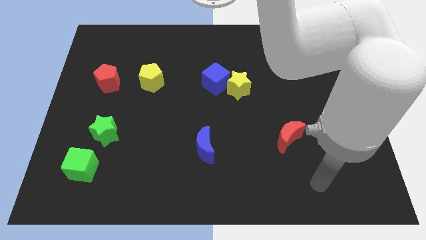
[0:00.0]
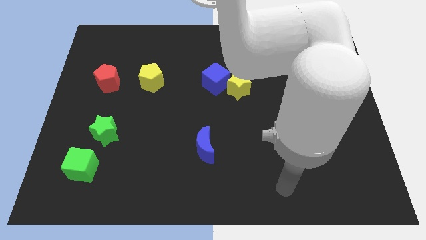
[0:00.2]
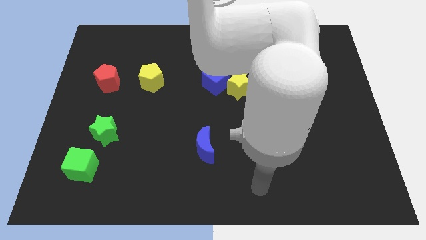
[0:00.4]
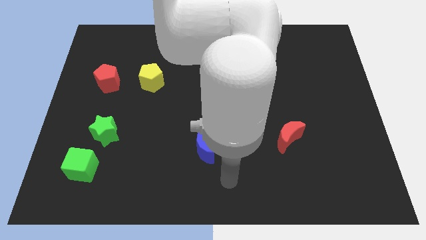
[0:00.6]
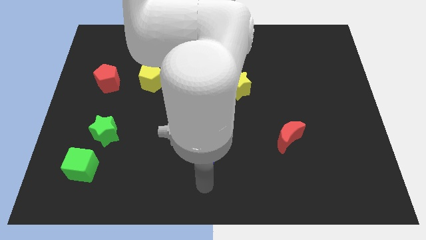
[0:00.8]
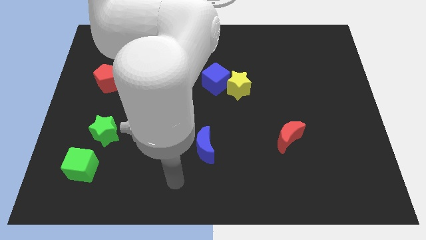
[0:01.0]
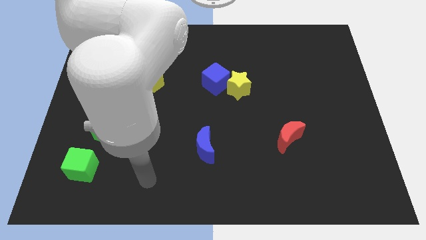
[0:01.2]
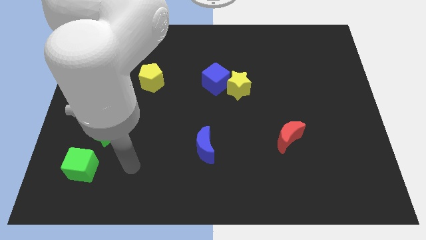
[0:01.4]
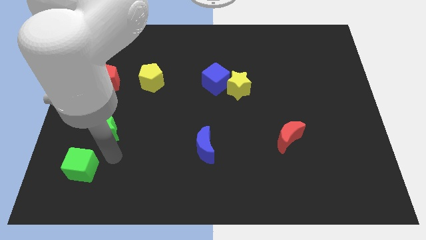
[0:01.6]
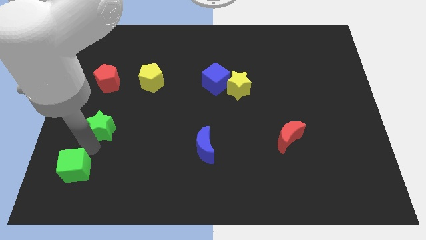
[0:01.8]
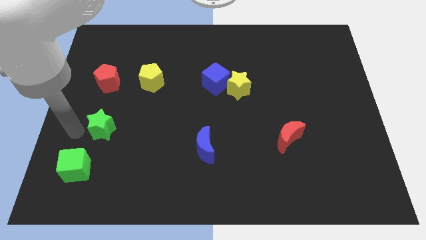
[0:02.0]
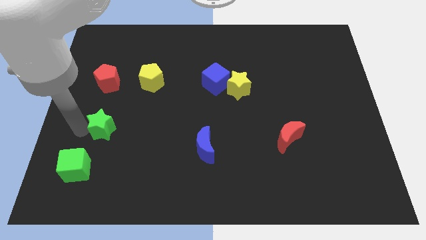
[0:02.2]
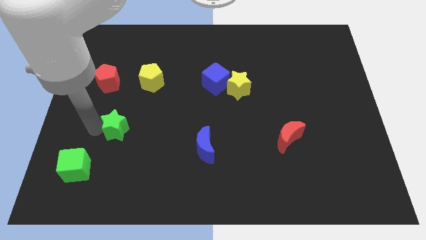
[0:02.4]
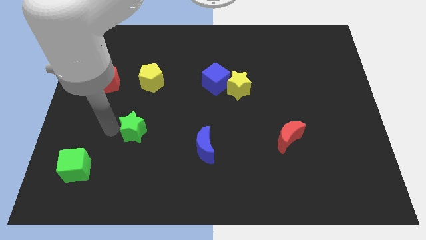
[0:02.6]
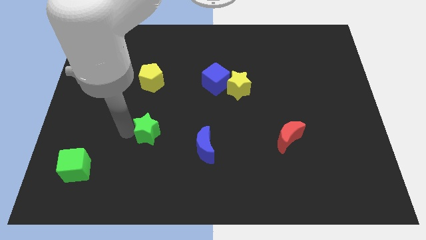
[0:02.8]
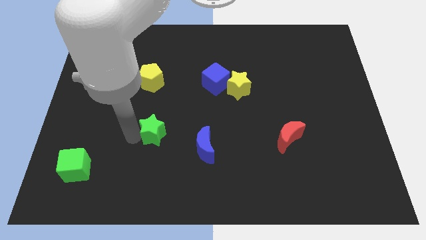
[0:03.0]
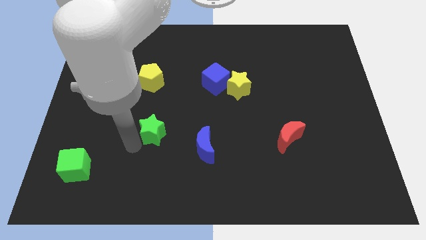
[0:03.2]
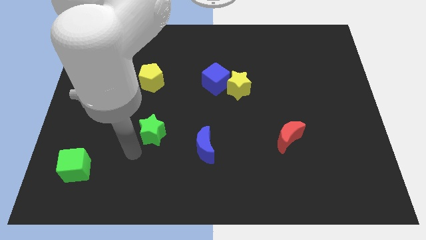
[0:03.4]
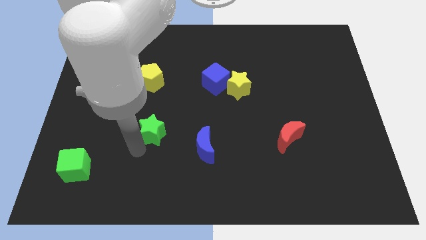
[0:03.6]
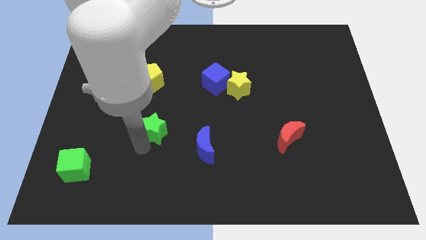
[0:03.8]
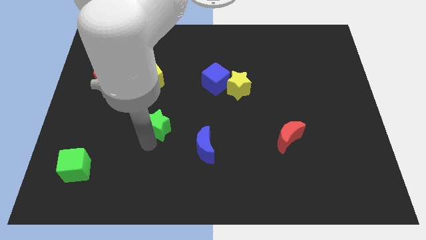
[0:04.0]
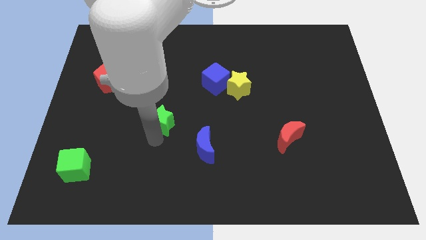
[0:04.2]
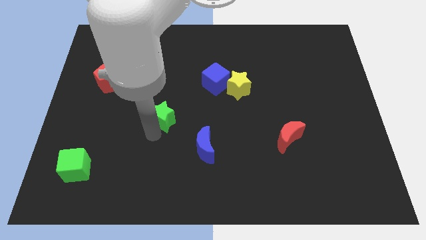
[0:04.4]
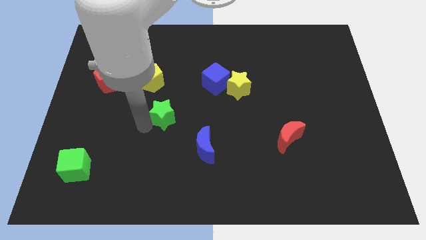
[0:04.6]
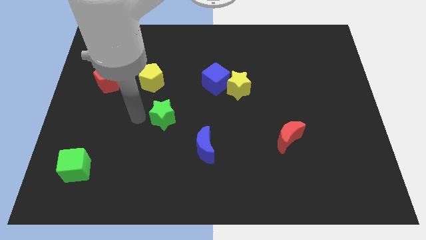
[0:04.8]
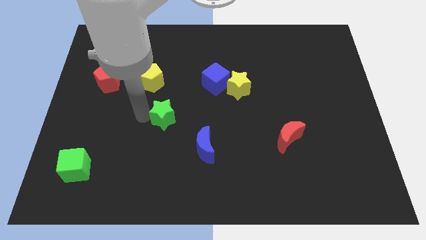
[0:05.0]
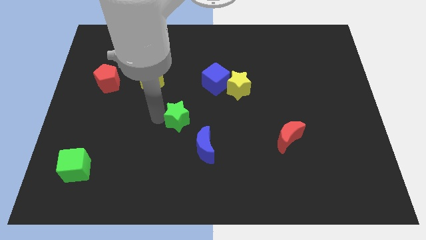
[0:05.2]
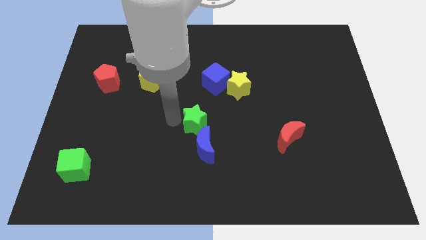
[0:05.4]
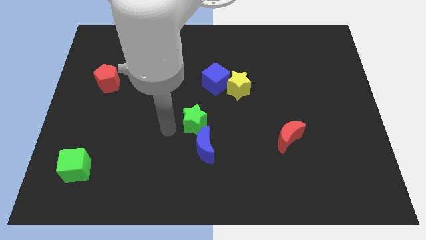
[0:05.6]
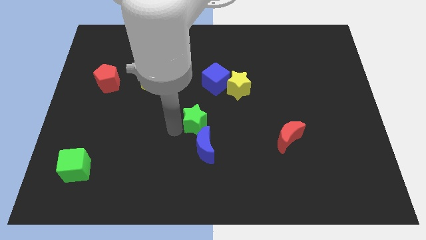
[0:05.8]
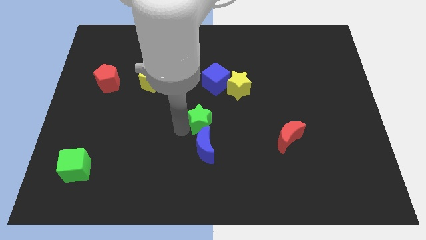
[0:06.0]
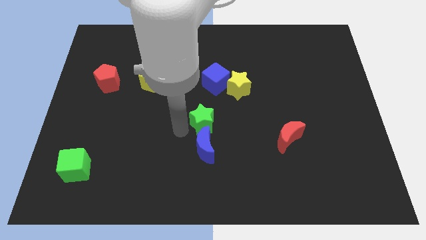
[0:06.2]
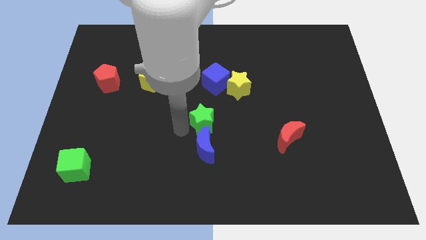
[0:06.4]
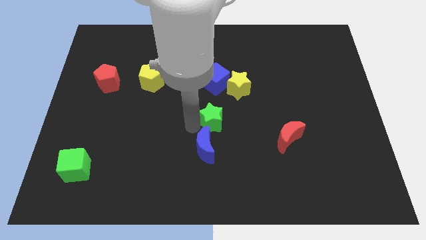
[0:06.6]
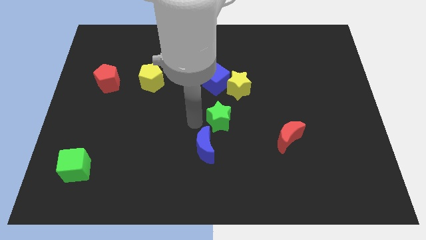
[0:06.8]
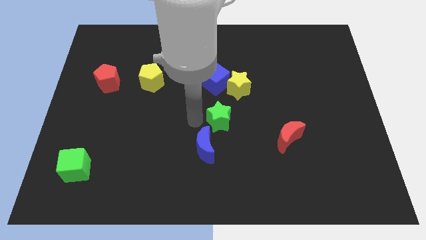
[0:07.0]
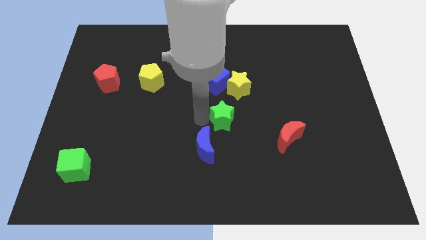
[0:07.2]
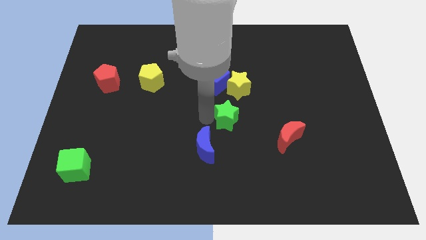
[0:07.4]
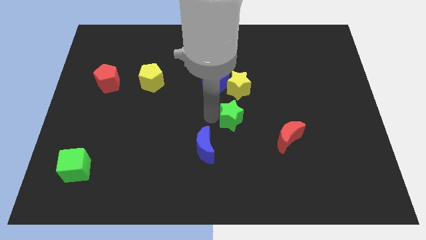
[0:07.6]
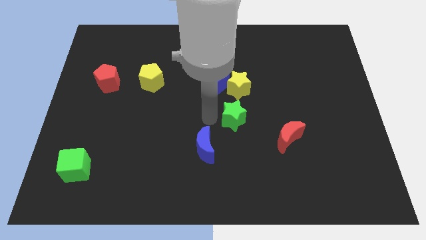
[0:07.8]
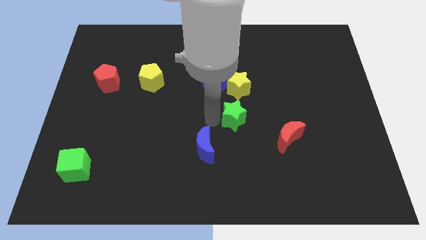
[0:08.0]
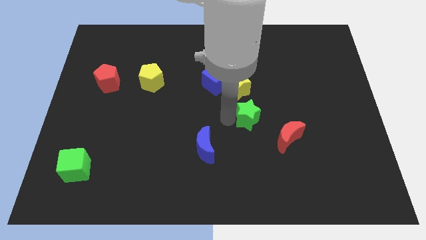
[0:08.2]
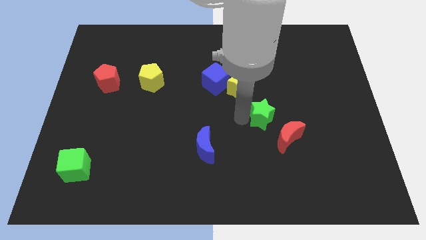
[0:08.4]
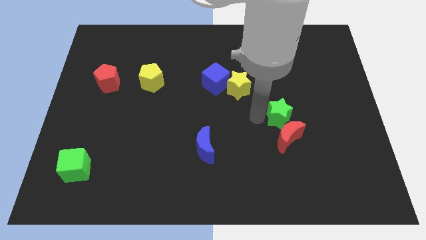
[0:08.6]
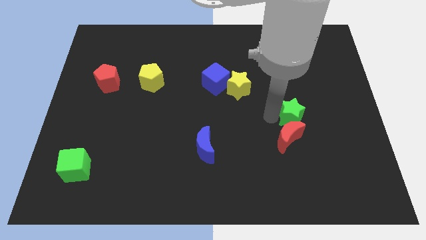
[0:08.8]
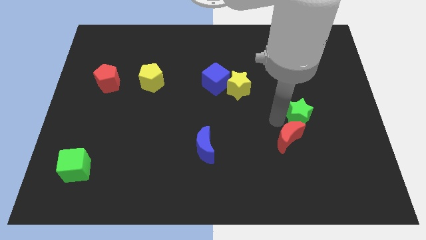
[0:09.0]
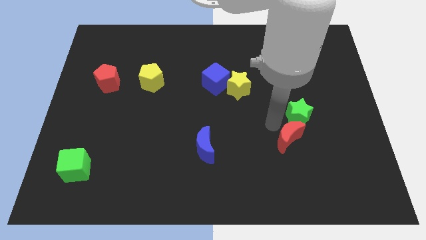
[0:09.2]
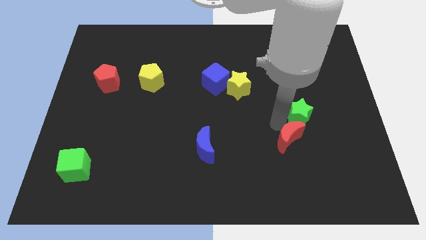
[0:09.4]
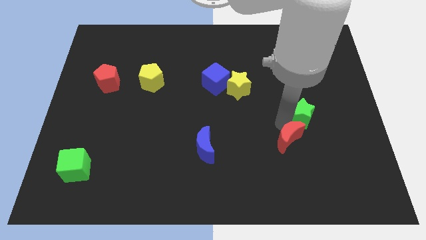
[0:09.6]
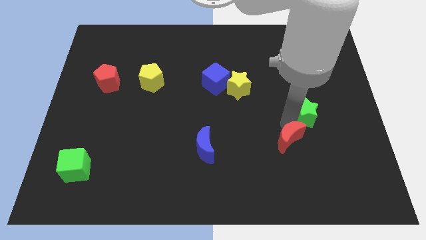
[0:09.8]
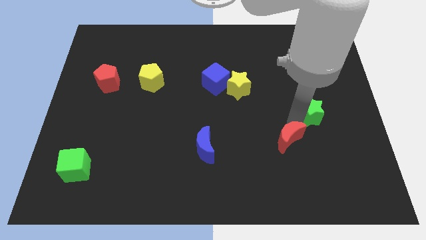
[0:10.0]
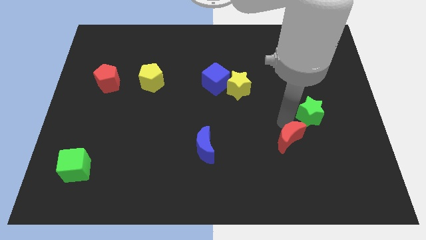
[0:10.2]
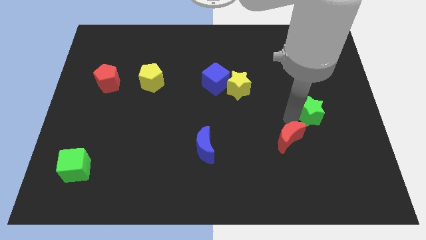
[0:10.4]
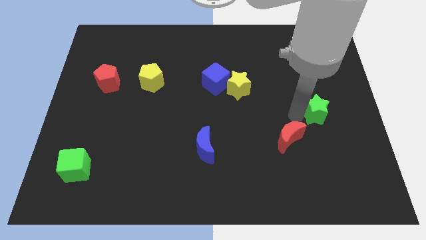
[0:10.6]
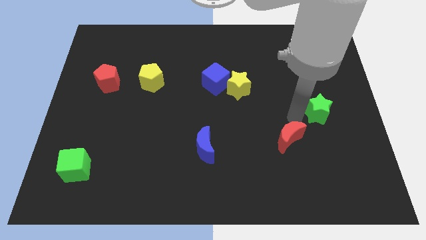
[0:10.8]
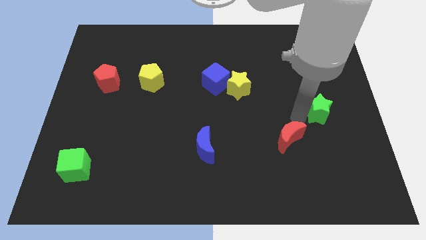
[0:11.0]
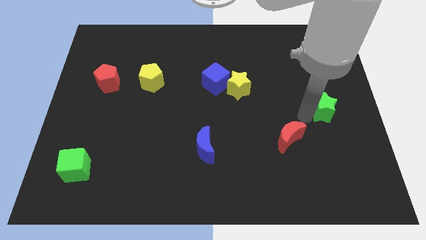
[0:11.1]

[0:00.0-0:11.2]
slide the green star to the right side of the board
